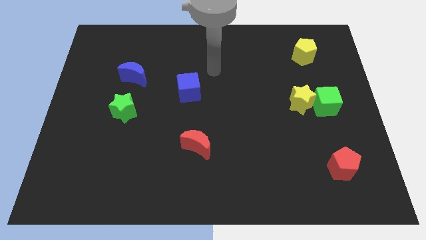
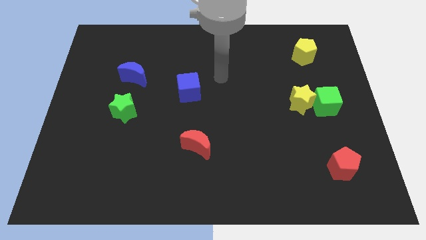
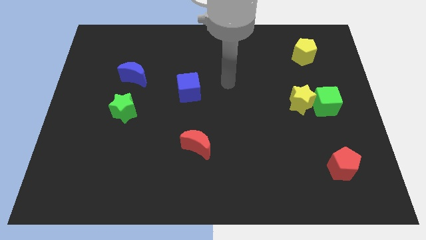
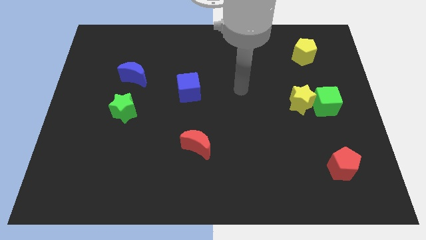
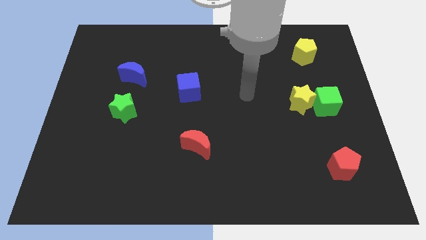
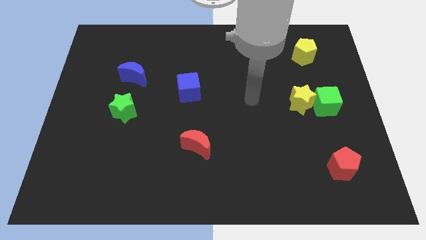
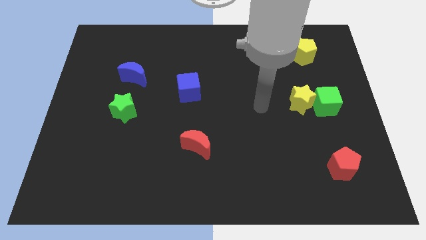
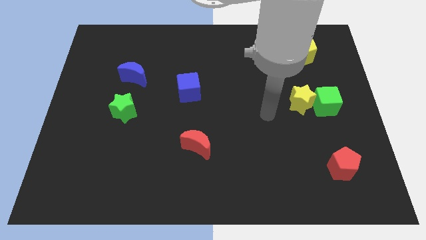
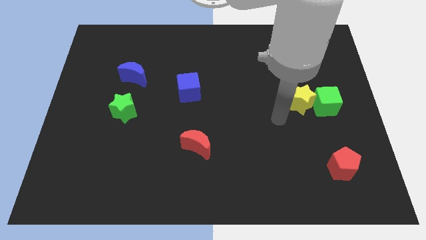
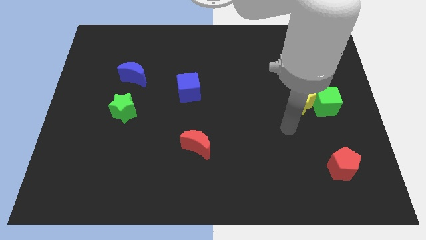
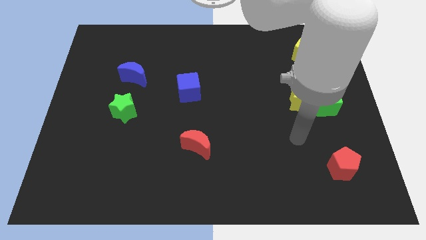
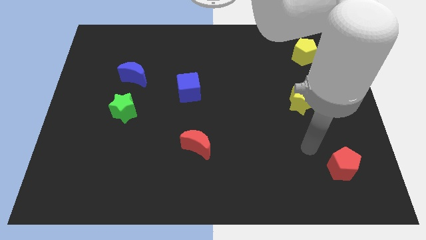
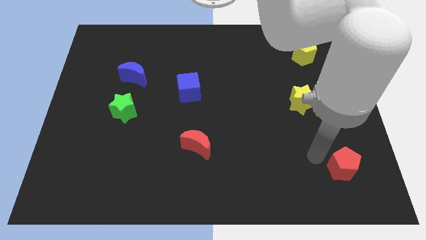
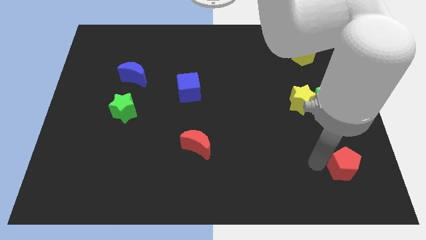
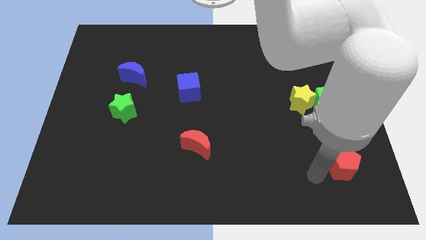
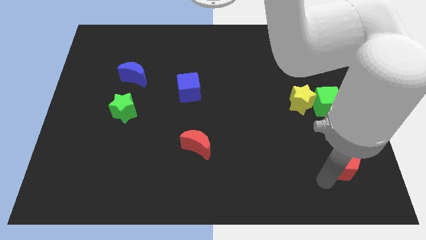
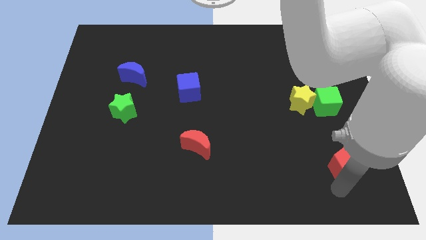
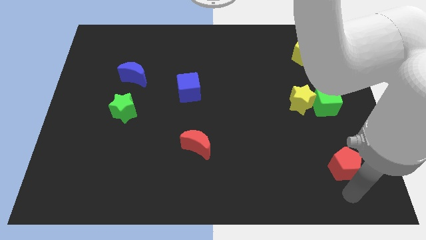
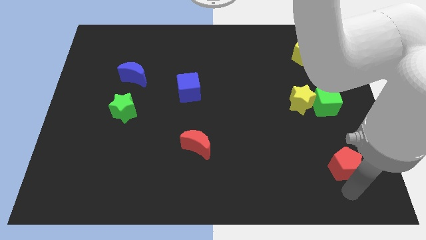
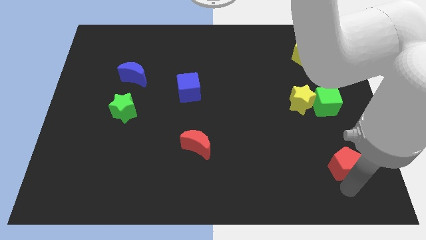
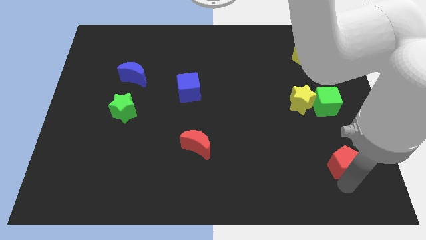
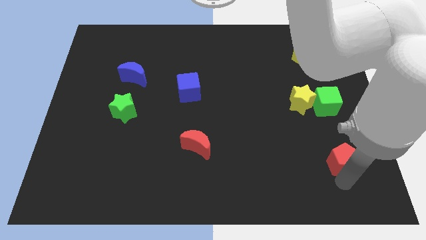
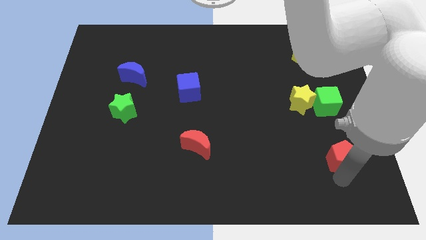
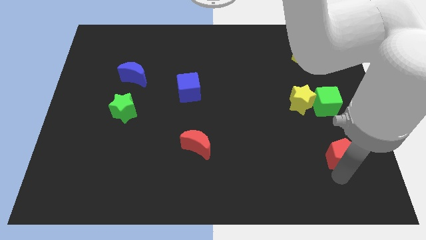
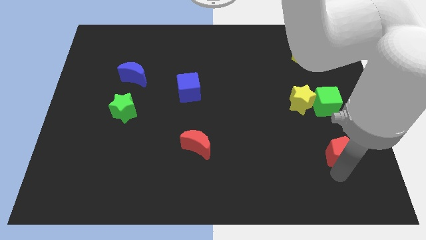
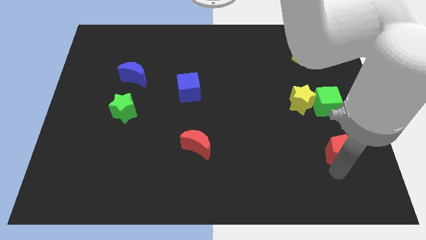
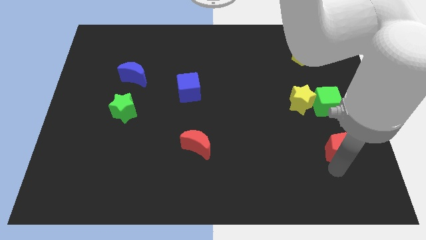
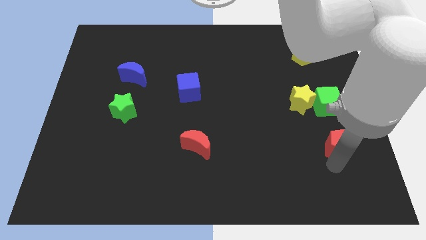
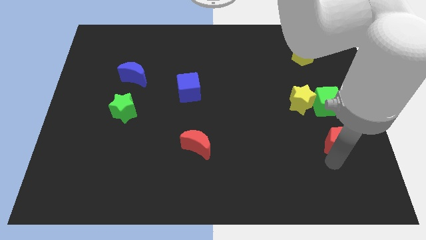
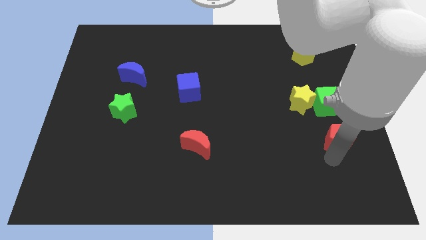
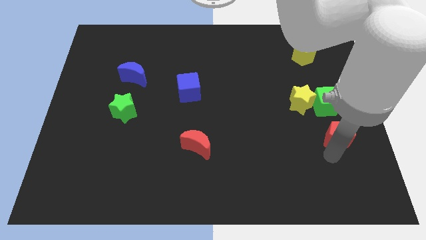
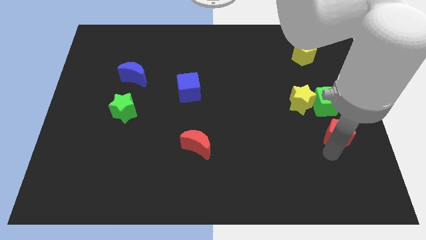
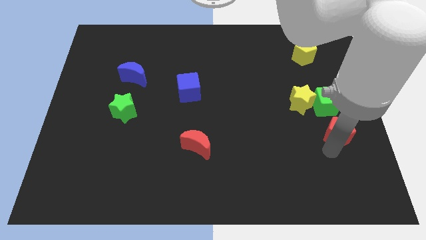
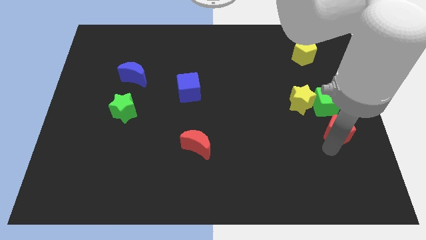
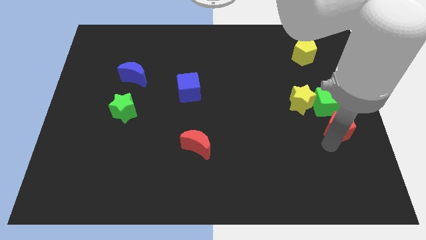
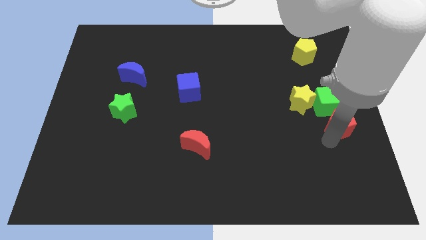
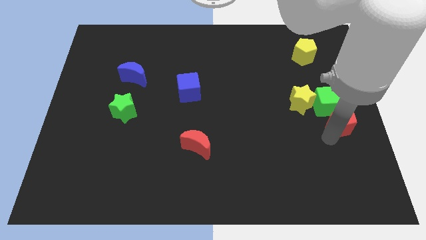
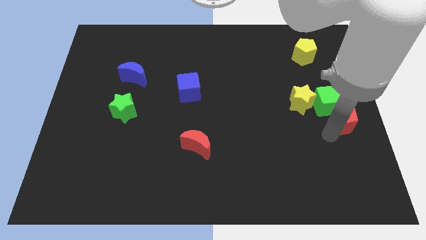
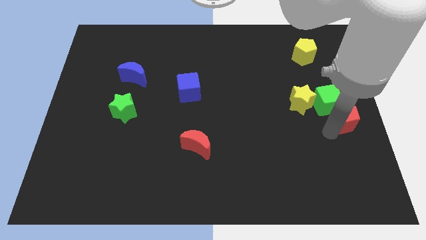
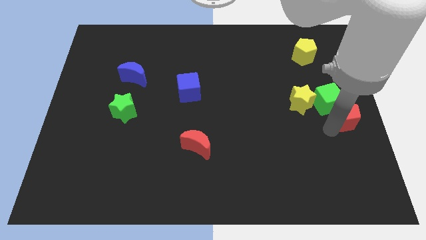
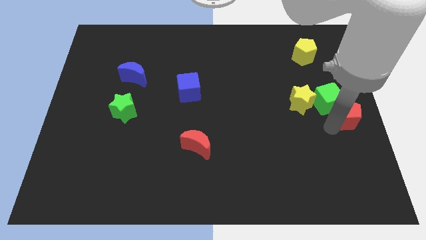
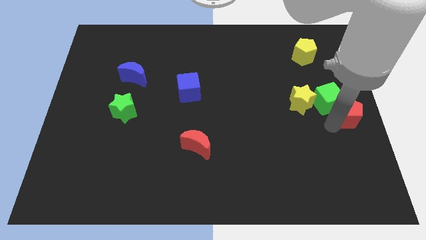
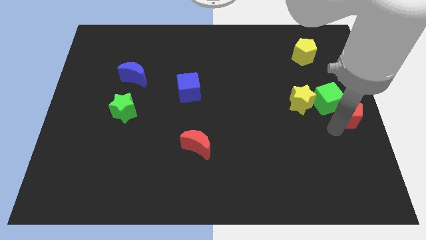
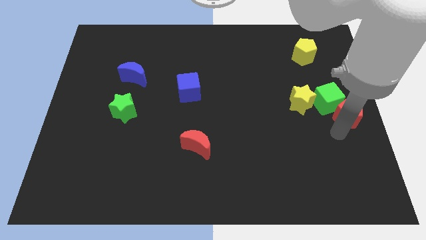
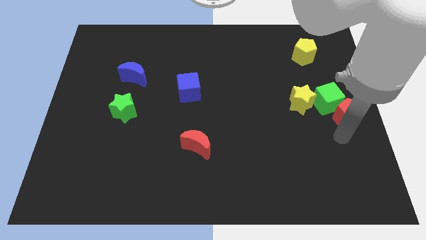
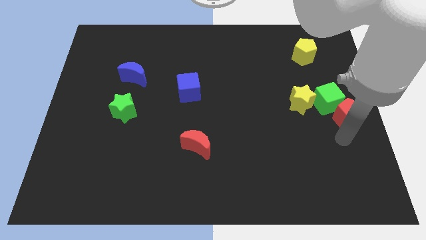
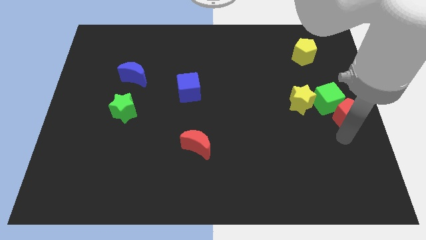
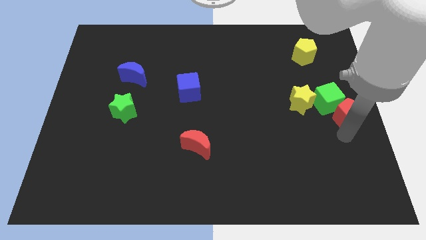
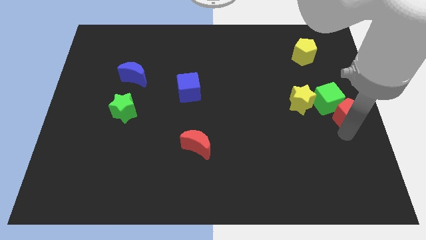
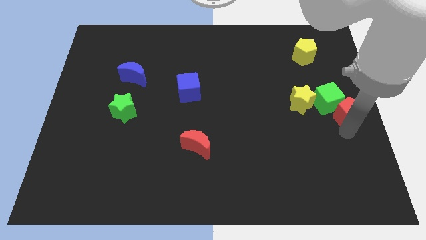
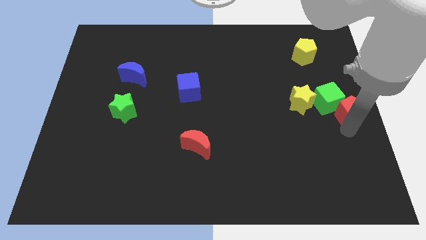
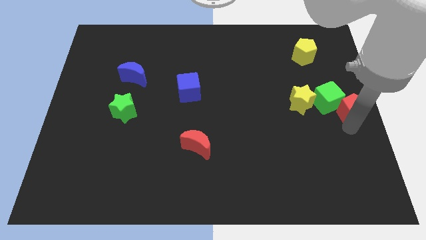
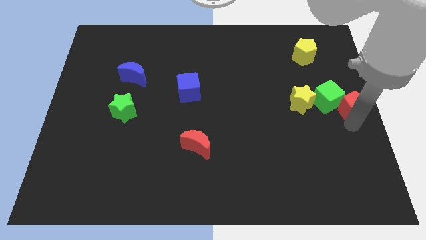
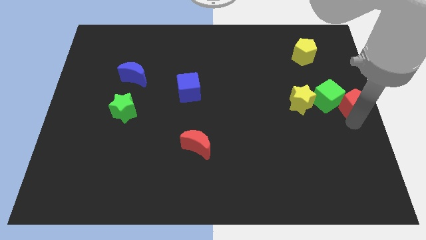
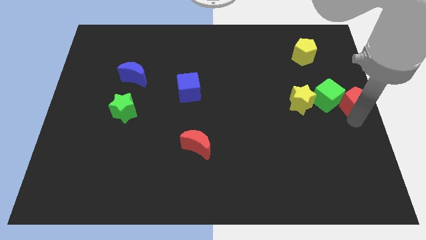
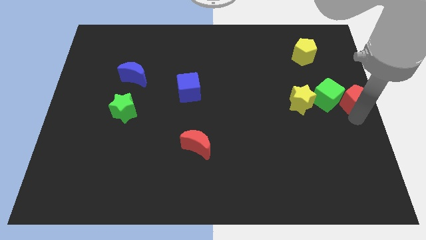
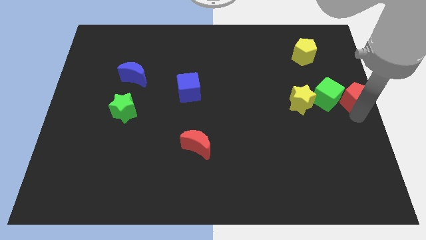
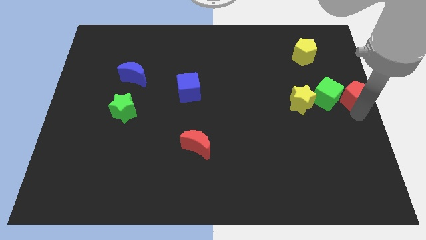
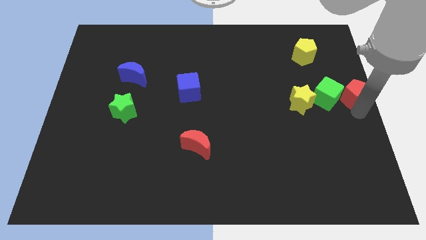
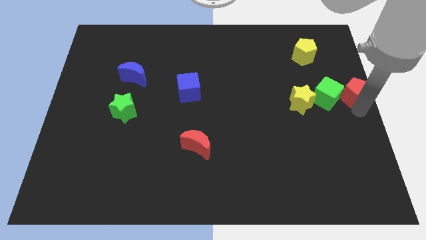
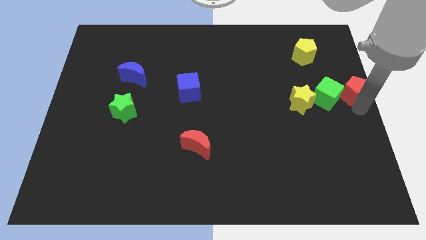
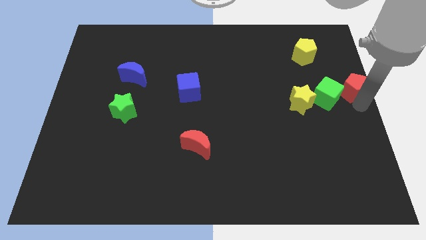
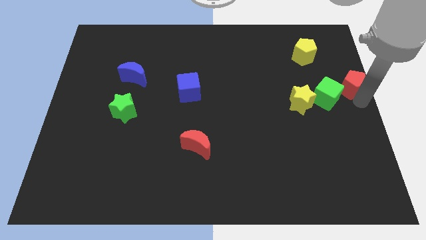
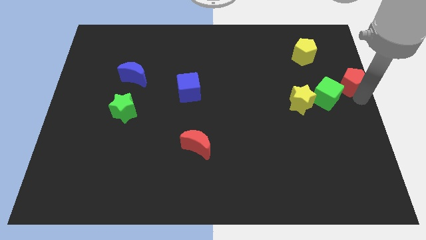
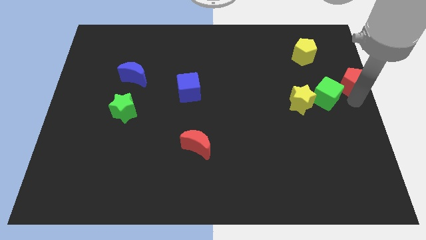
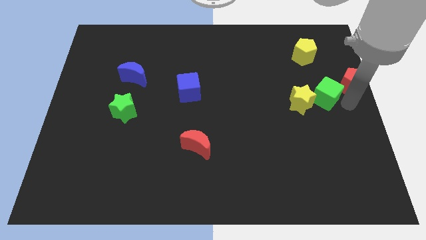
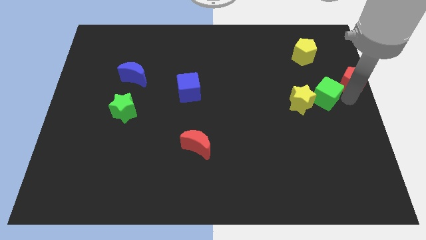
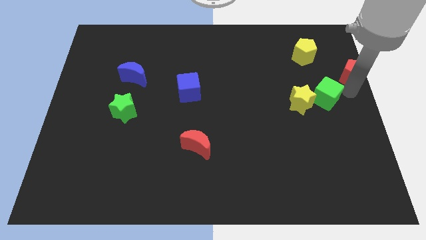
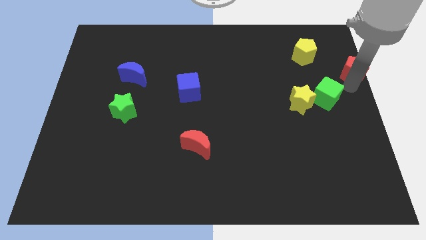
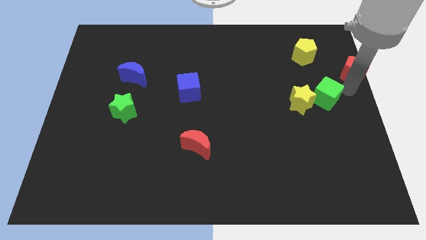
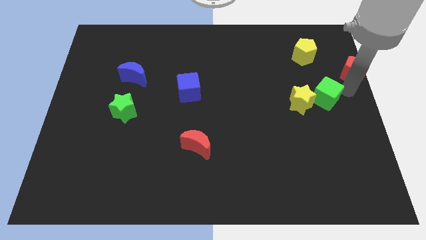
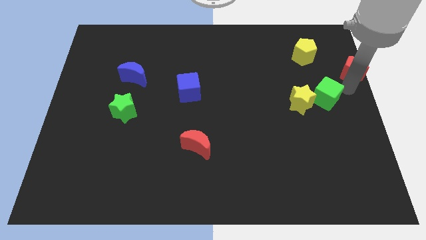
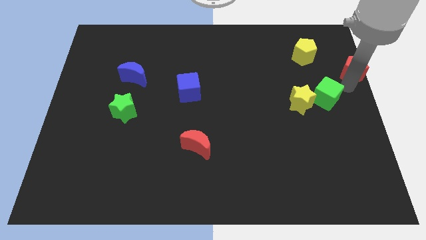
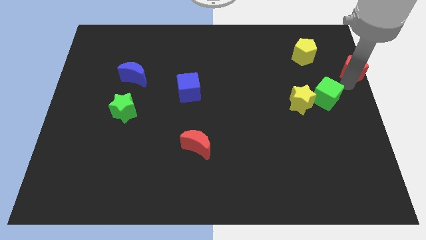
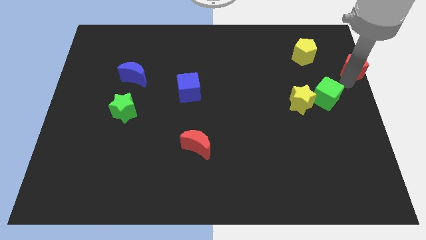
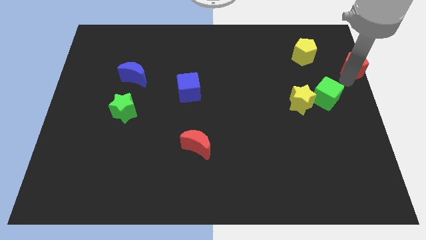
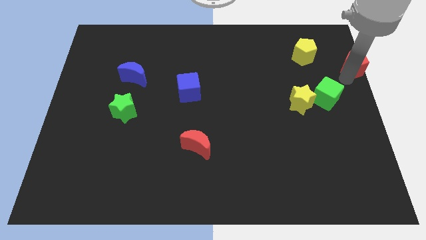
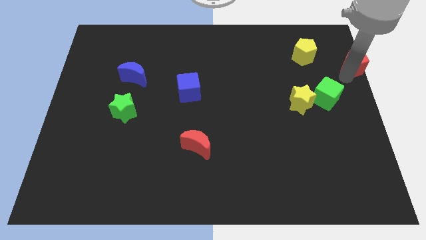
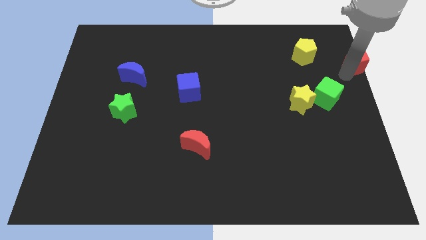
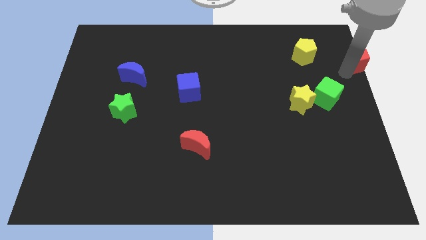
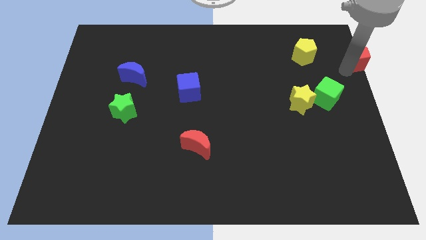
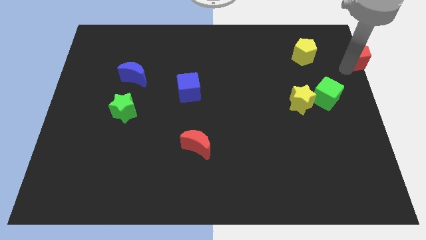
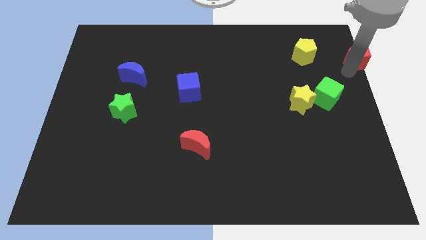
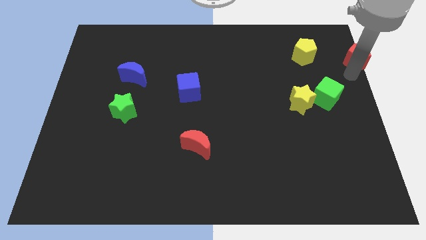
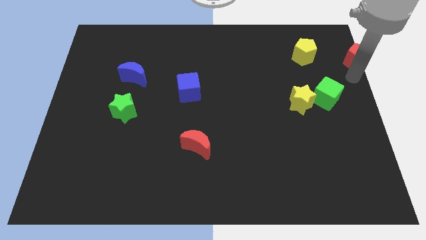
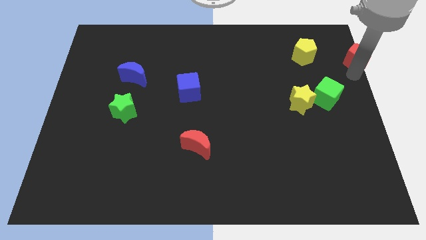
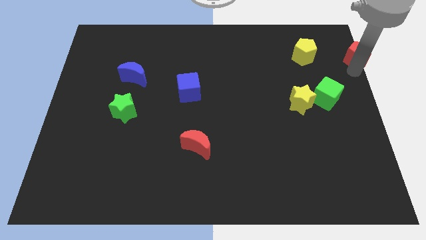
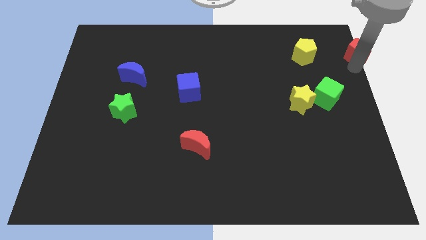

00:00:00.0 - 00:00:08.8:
push the red pentagon to the top right
